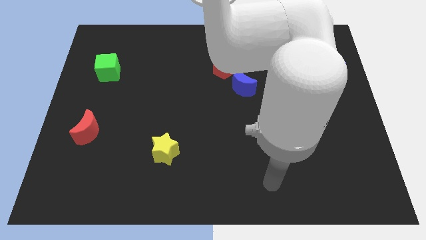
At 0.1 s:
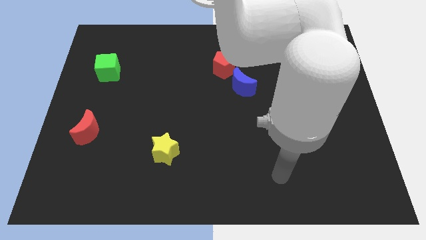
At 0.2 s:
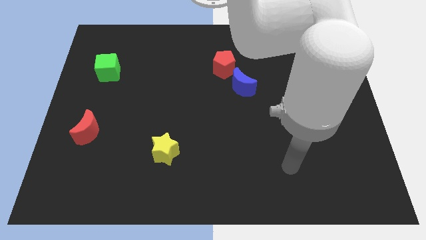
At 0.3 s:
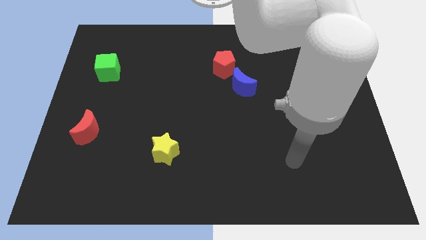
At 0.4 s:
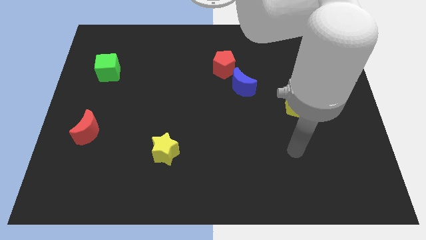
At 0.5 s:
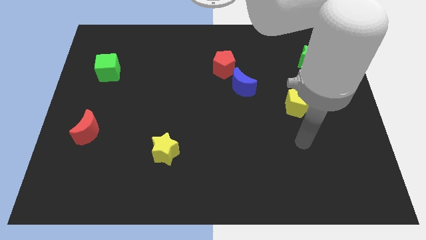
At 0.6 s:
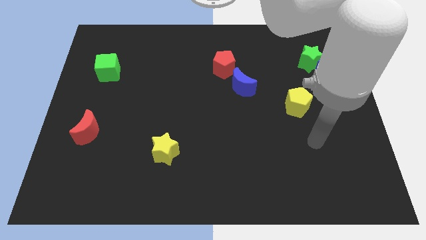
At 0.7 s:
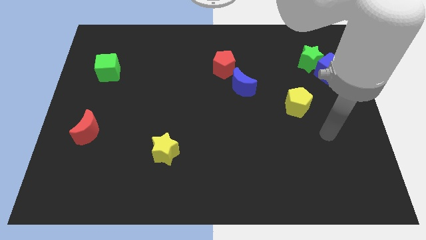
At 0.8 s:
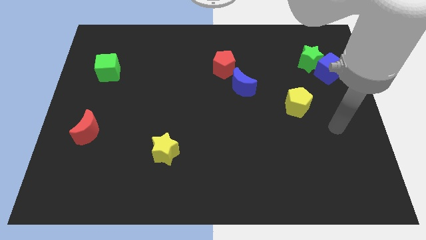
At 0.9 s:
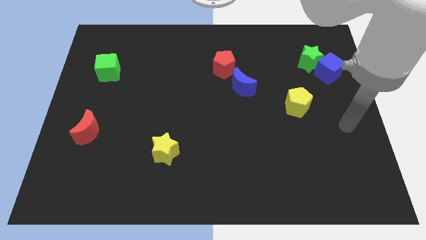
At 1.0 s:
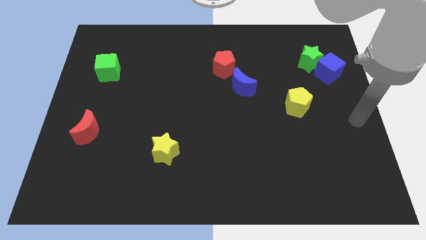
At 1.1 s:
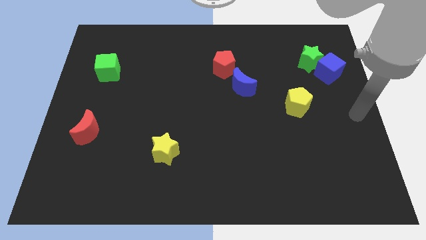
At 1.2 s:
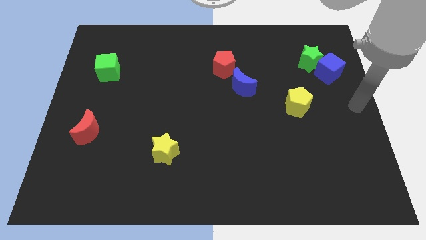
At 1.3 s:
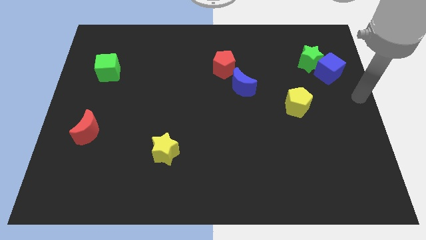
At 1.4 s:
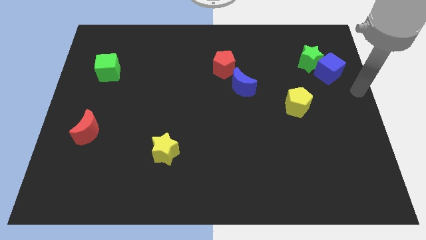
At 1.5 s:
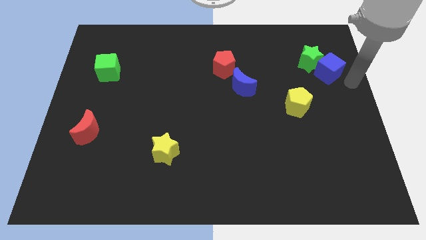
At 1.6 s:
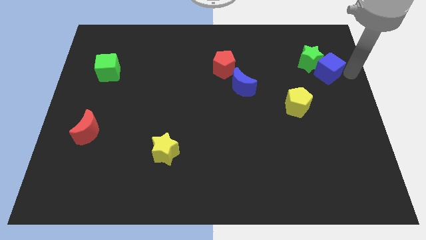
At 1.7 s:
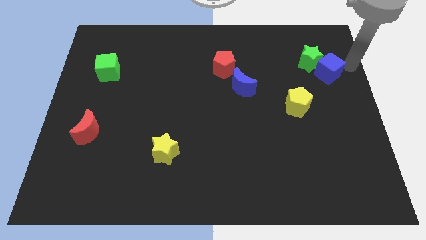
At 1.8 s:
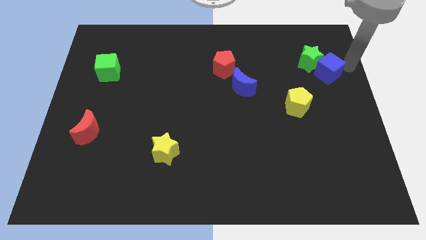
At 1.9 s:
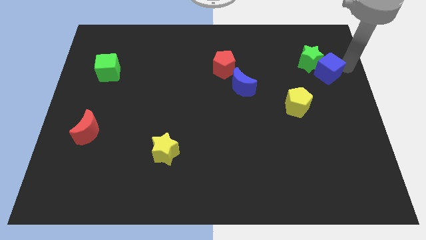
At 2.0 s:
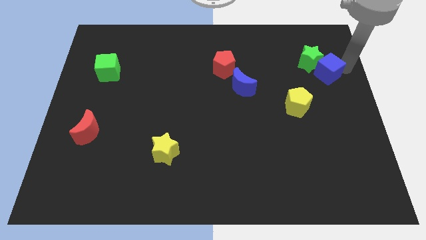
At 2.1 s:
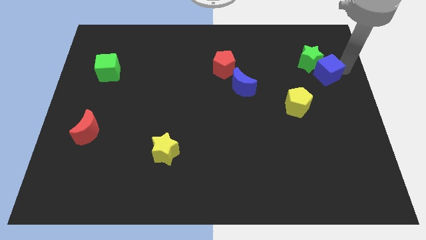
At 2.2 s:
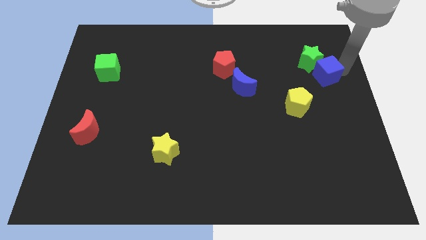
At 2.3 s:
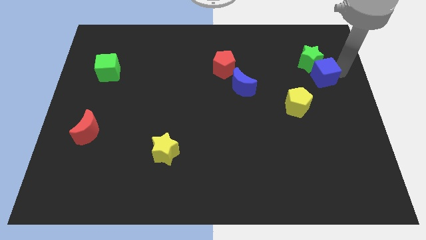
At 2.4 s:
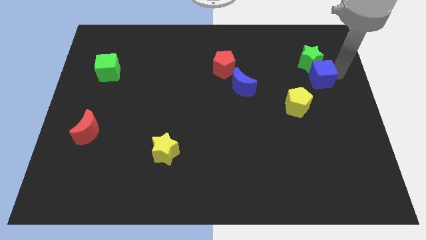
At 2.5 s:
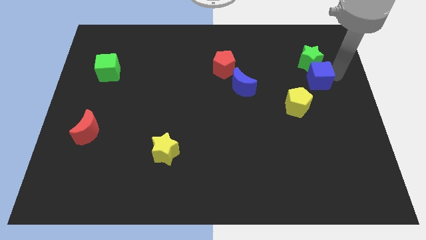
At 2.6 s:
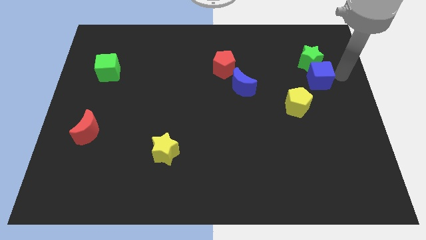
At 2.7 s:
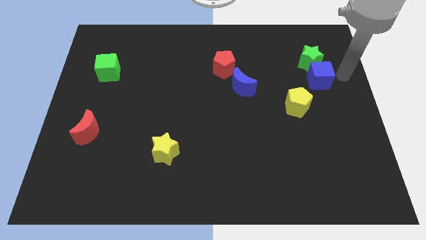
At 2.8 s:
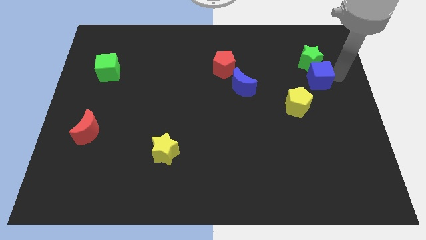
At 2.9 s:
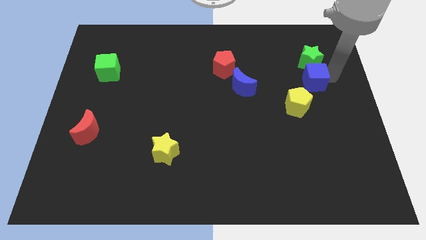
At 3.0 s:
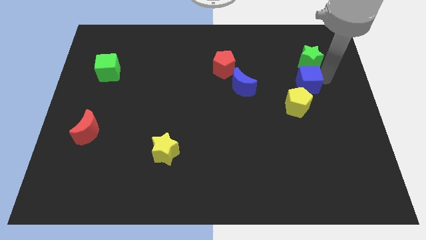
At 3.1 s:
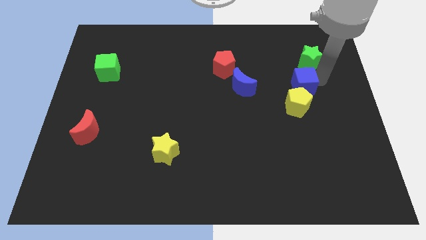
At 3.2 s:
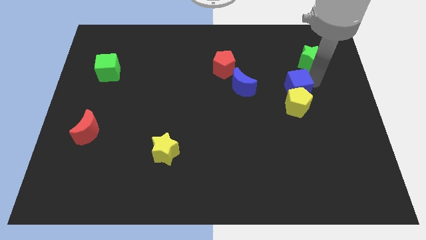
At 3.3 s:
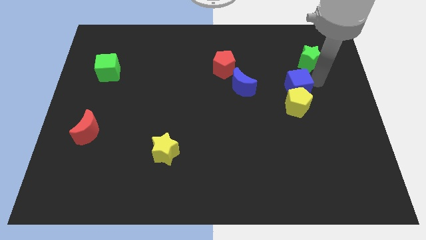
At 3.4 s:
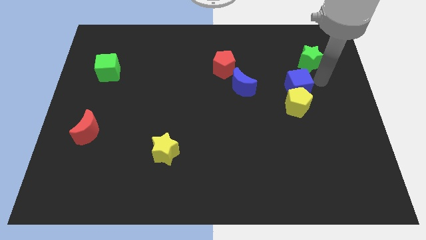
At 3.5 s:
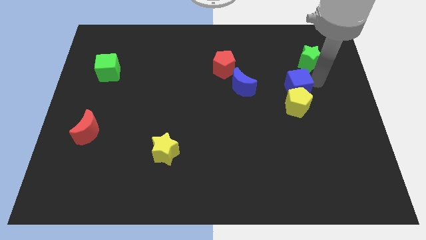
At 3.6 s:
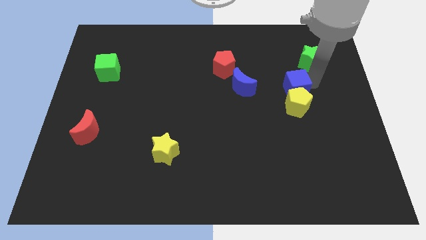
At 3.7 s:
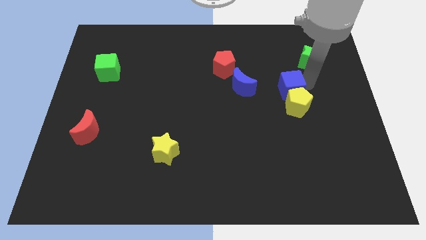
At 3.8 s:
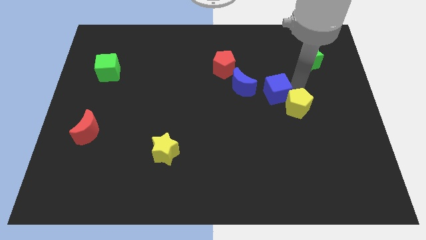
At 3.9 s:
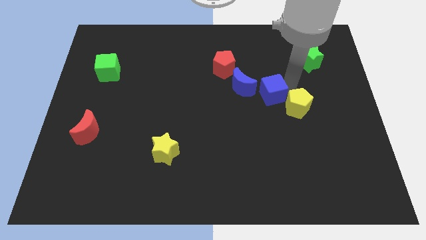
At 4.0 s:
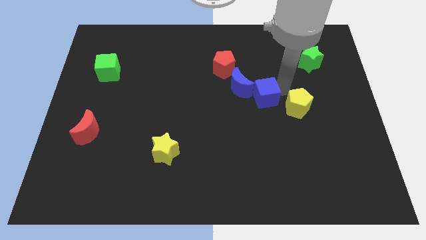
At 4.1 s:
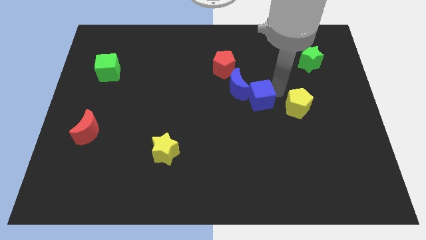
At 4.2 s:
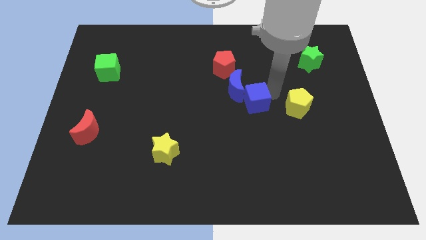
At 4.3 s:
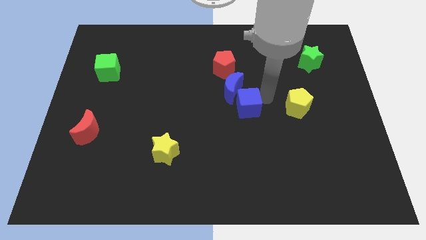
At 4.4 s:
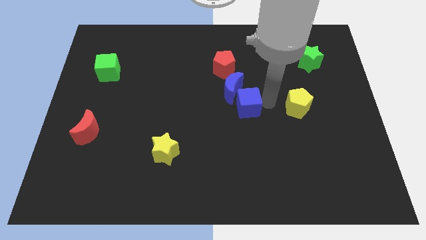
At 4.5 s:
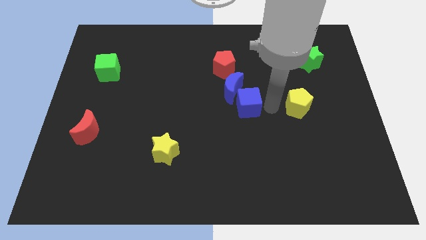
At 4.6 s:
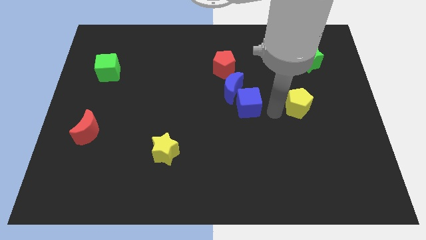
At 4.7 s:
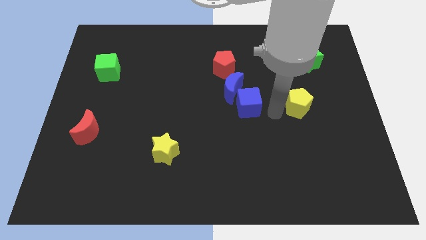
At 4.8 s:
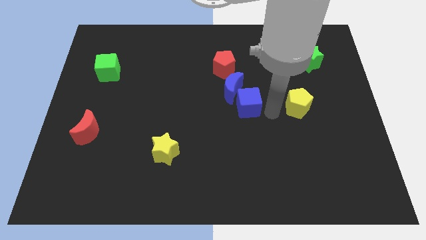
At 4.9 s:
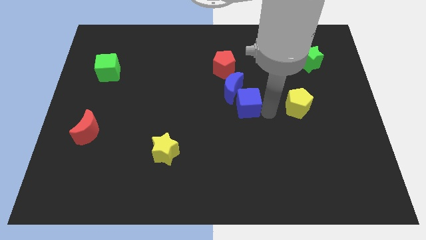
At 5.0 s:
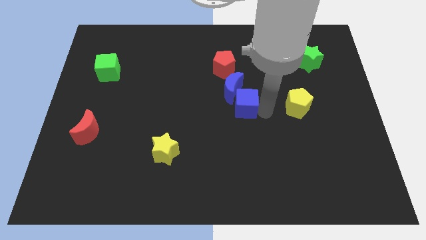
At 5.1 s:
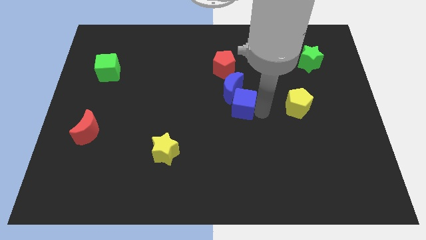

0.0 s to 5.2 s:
slide the blue cube to the bottom of the red pentagon

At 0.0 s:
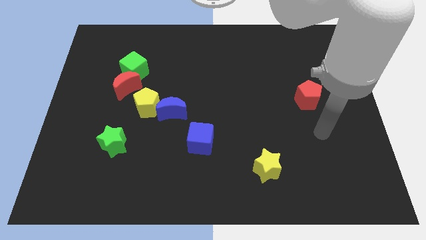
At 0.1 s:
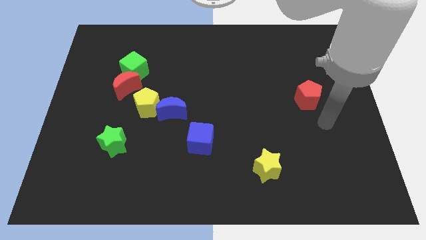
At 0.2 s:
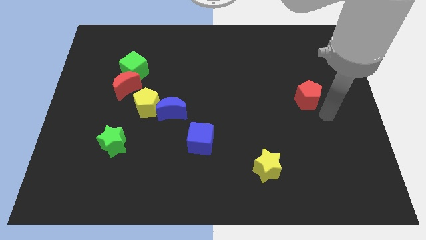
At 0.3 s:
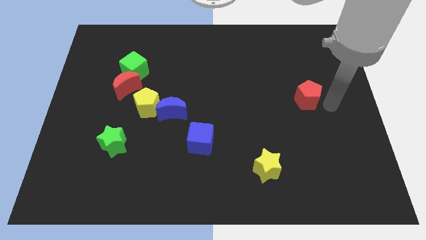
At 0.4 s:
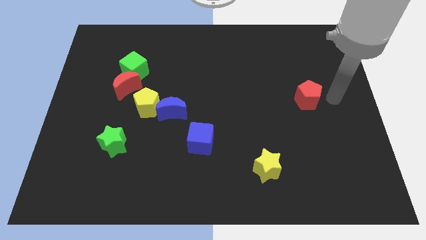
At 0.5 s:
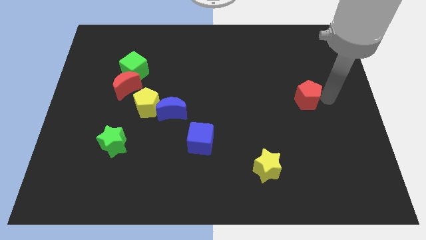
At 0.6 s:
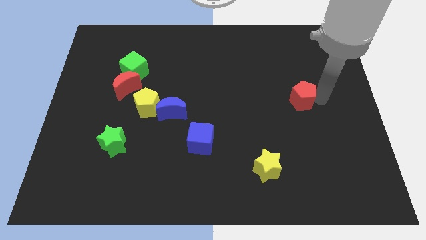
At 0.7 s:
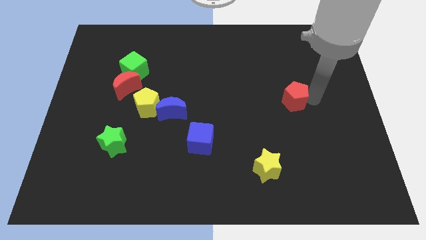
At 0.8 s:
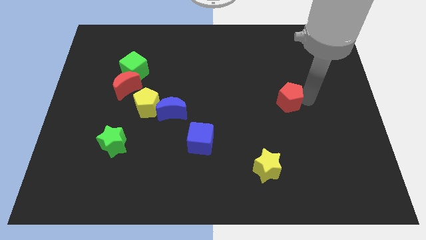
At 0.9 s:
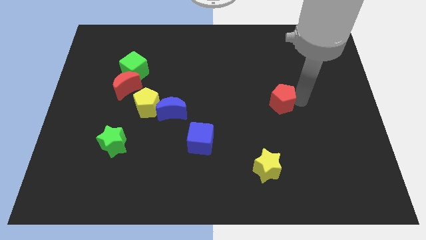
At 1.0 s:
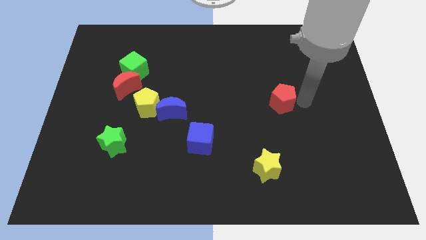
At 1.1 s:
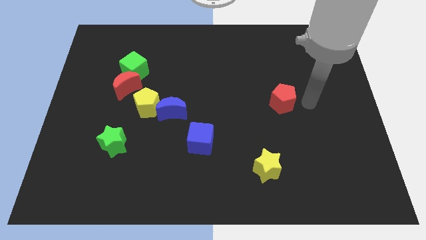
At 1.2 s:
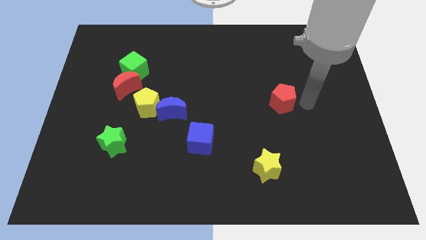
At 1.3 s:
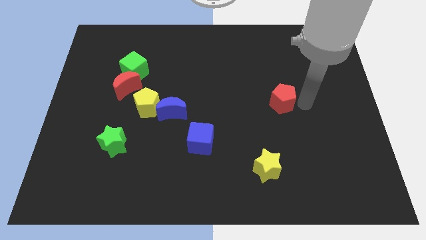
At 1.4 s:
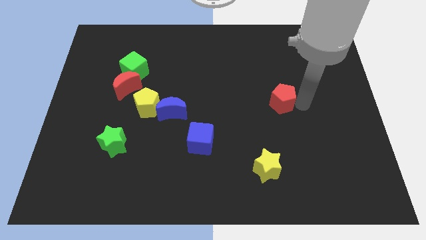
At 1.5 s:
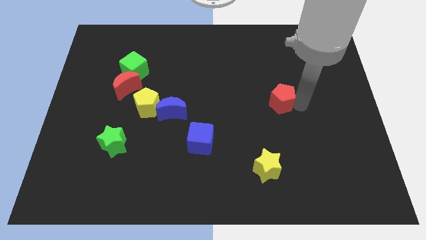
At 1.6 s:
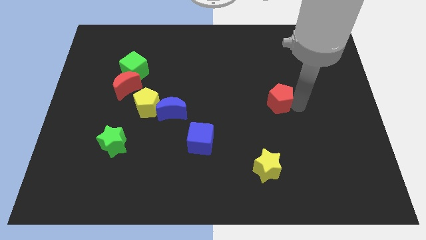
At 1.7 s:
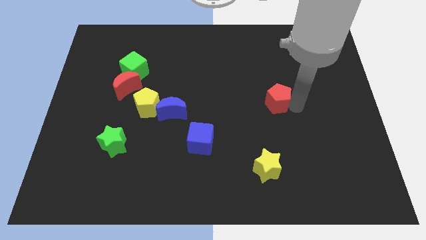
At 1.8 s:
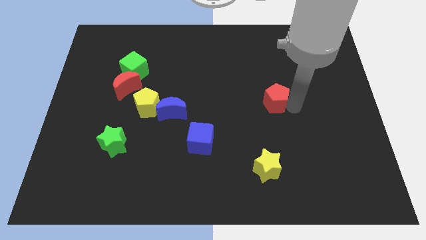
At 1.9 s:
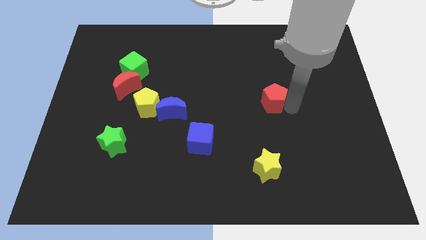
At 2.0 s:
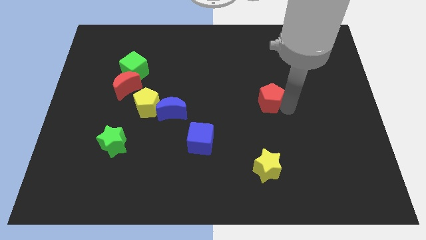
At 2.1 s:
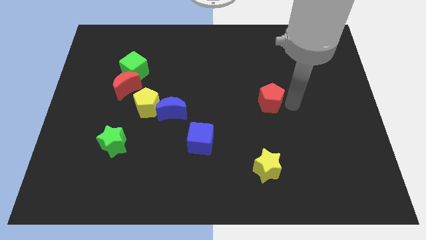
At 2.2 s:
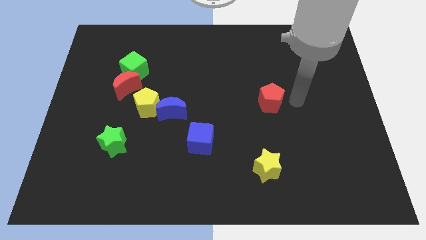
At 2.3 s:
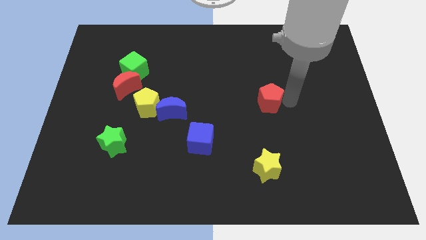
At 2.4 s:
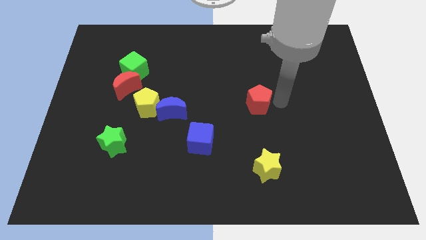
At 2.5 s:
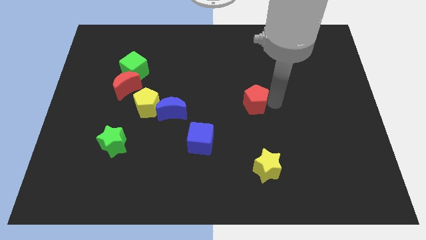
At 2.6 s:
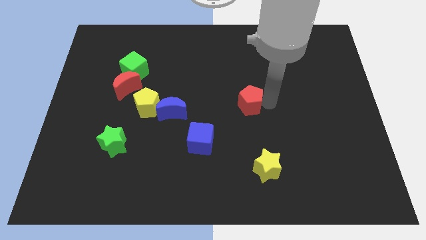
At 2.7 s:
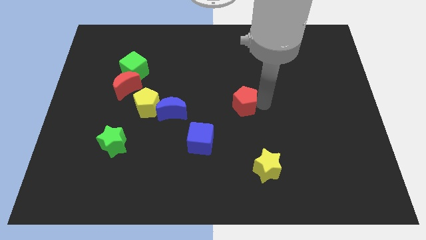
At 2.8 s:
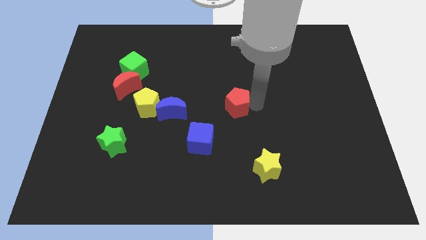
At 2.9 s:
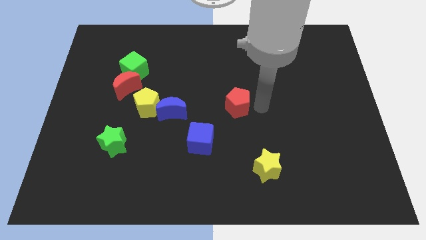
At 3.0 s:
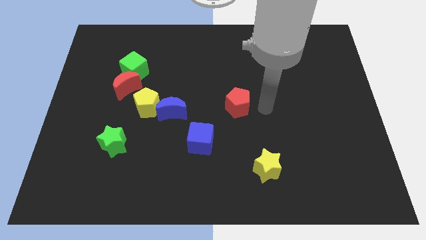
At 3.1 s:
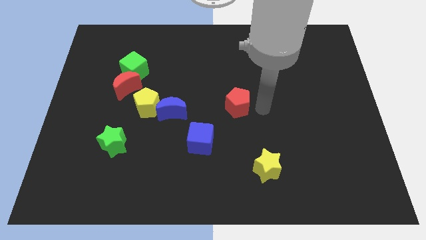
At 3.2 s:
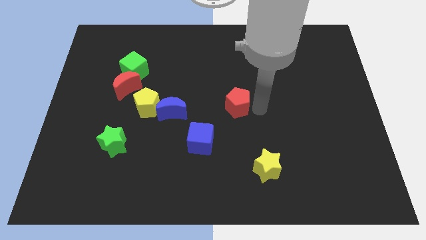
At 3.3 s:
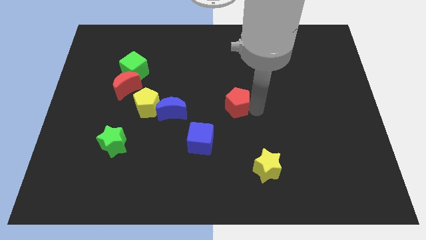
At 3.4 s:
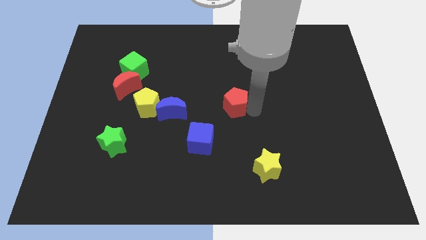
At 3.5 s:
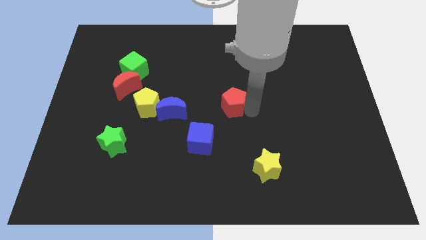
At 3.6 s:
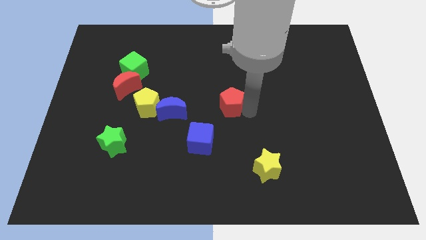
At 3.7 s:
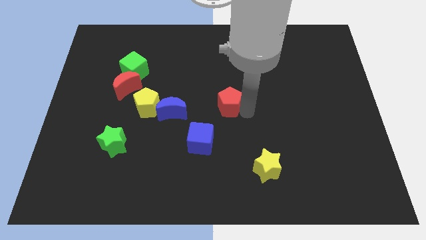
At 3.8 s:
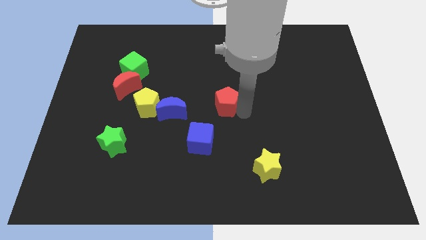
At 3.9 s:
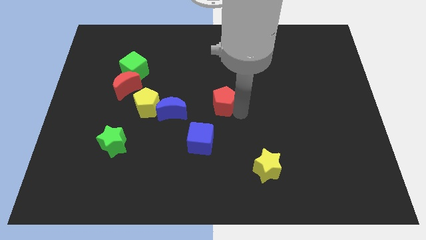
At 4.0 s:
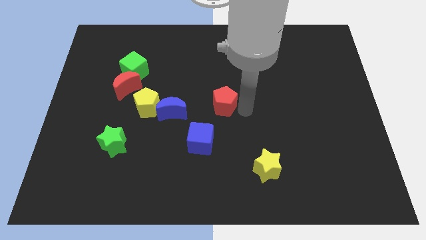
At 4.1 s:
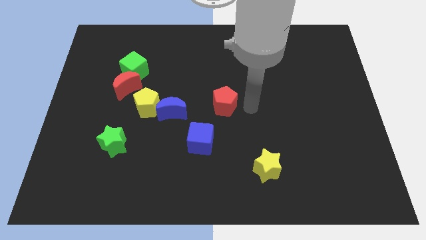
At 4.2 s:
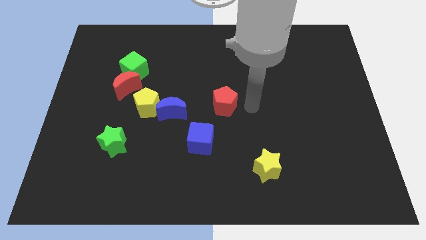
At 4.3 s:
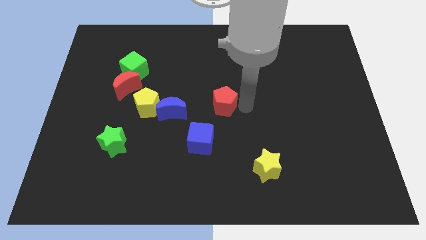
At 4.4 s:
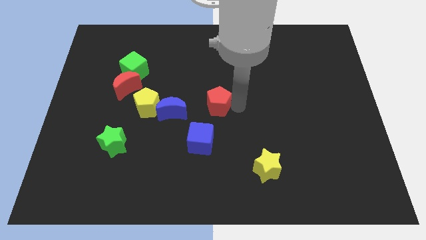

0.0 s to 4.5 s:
move the red pentagon to the top side of the blue cube
